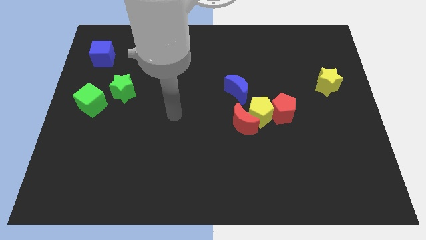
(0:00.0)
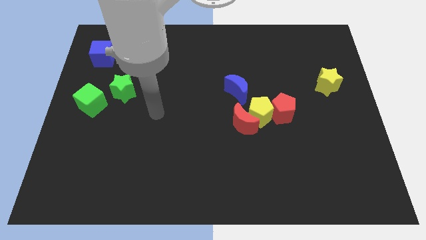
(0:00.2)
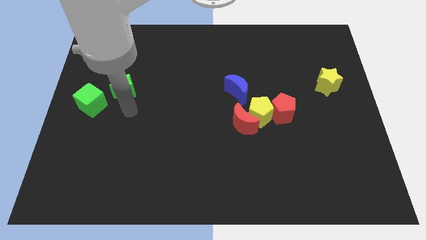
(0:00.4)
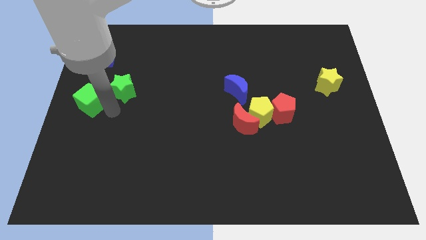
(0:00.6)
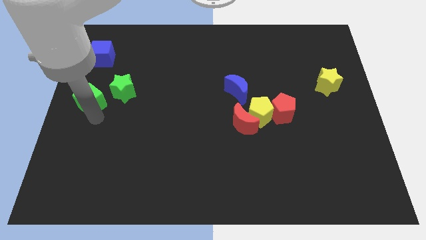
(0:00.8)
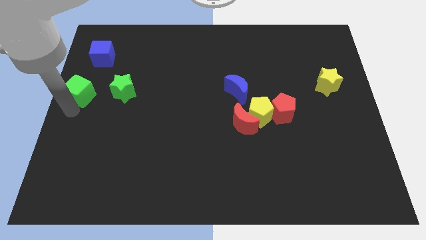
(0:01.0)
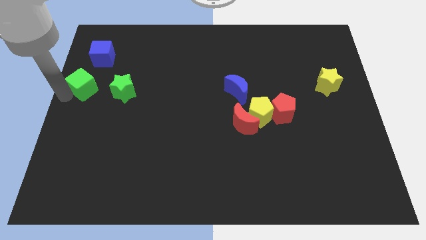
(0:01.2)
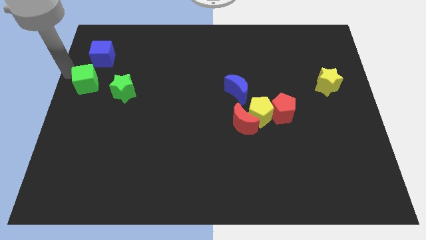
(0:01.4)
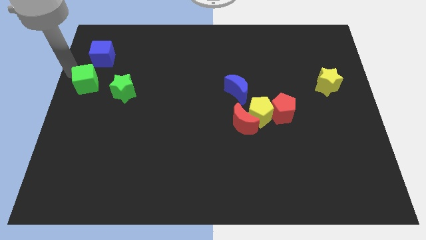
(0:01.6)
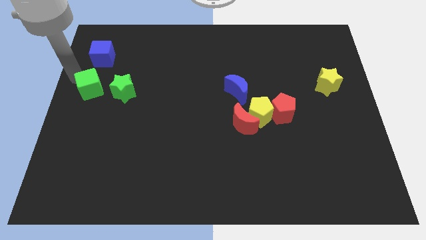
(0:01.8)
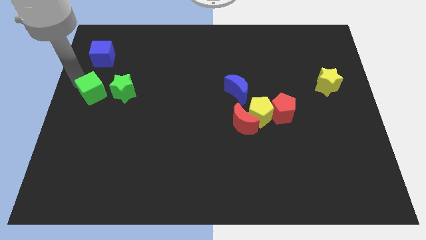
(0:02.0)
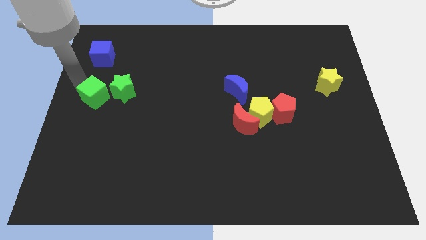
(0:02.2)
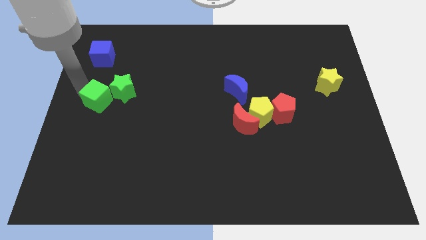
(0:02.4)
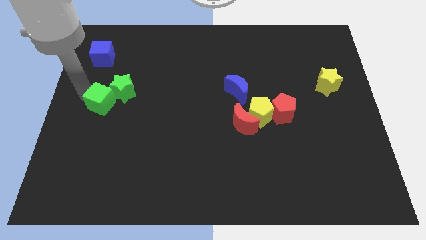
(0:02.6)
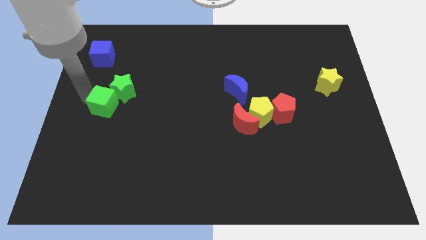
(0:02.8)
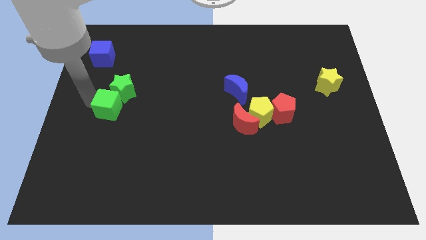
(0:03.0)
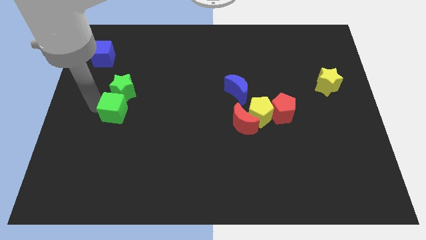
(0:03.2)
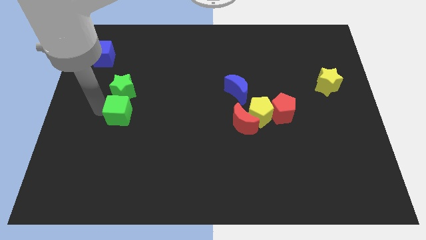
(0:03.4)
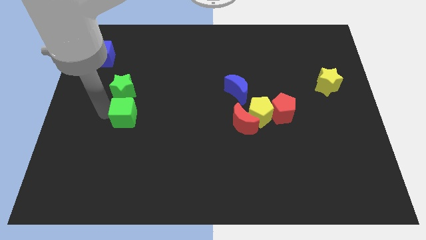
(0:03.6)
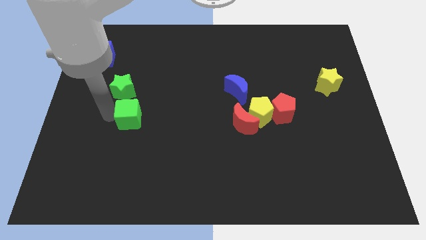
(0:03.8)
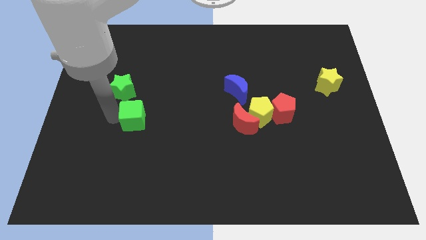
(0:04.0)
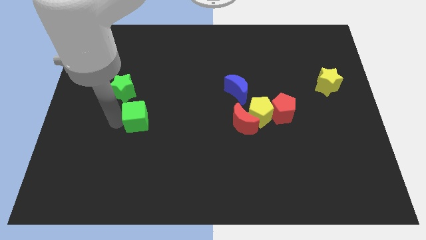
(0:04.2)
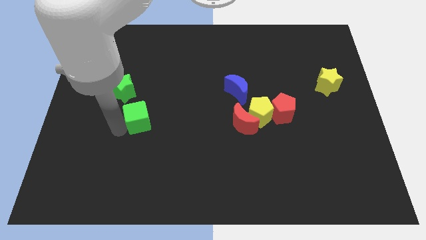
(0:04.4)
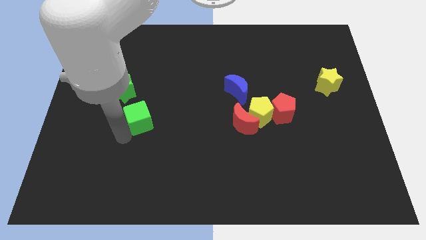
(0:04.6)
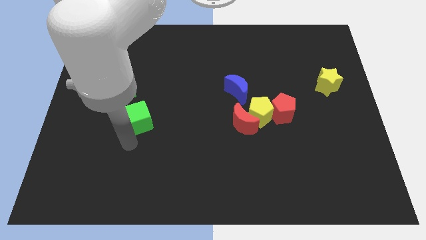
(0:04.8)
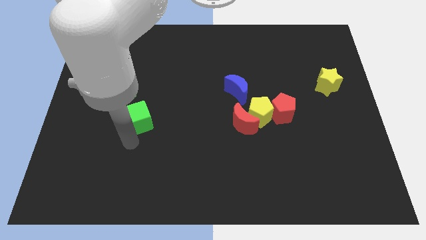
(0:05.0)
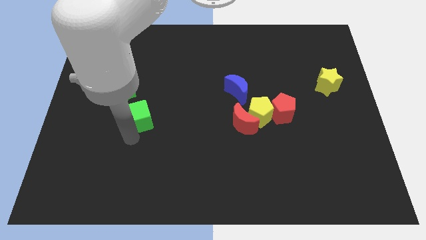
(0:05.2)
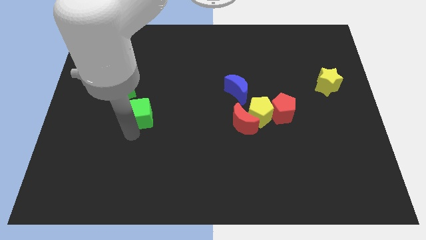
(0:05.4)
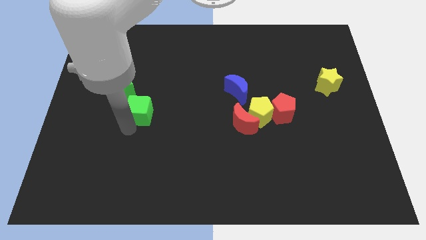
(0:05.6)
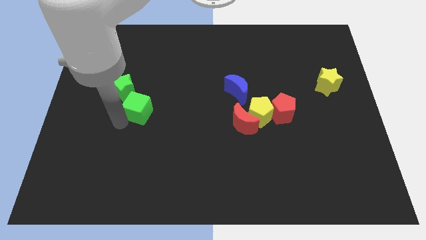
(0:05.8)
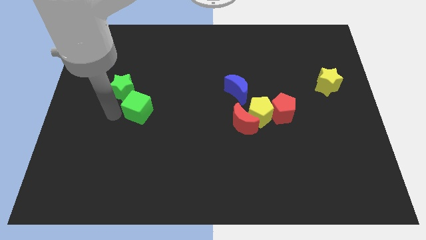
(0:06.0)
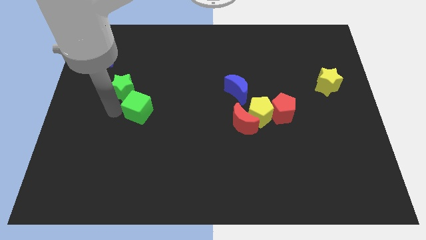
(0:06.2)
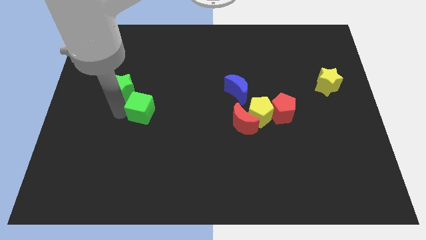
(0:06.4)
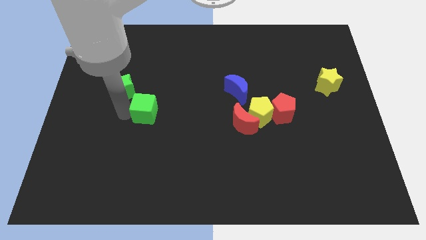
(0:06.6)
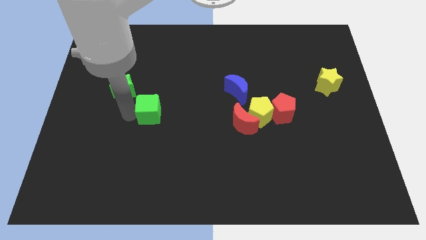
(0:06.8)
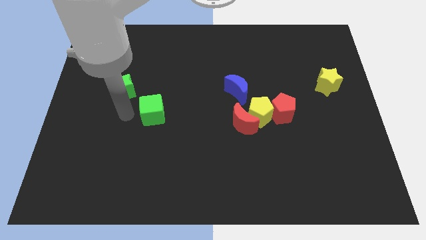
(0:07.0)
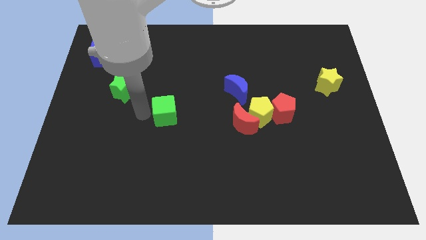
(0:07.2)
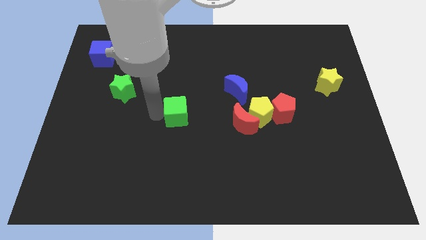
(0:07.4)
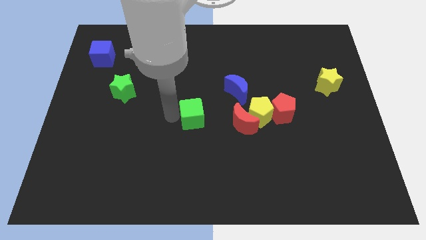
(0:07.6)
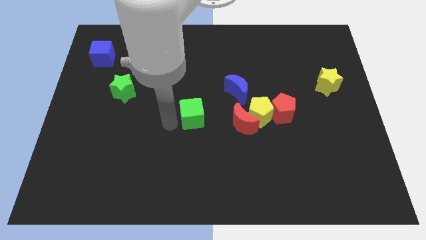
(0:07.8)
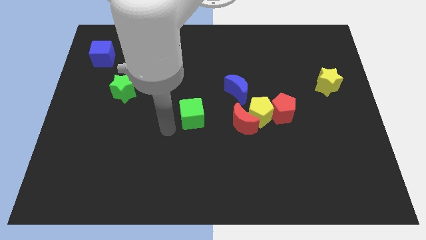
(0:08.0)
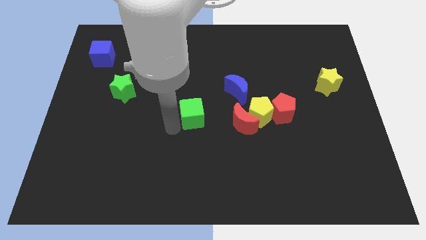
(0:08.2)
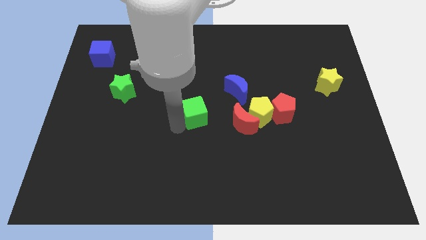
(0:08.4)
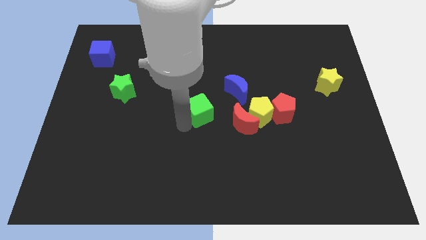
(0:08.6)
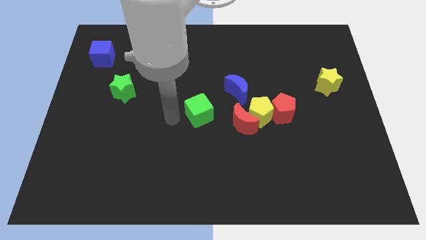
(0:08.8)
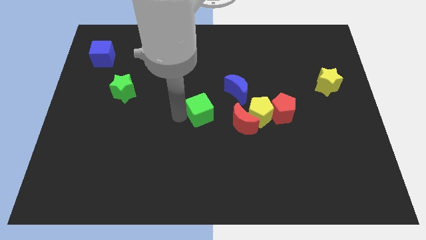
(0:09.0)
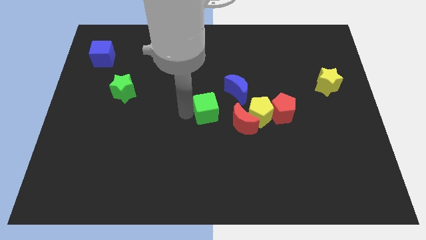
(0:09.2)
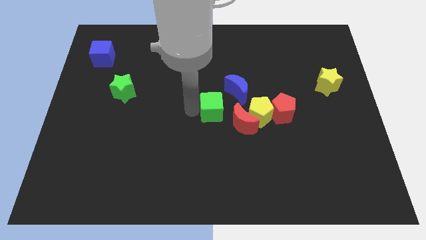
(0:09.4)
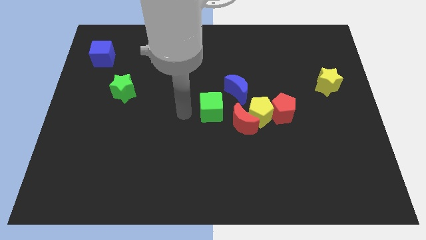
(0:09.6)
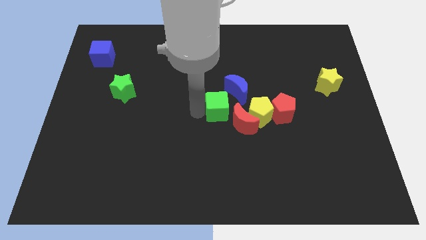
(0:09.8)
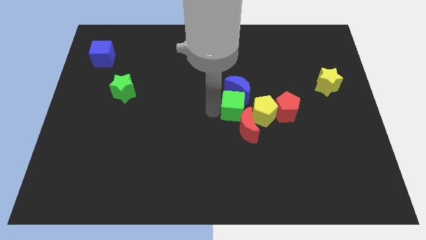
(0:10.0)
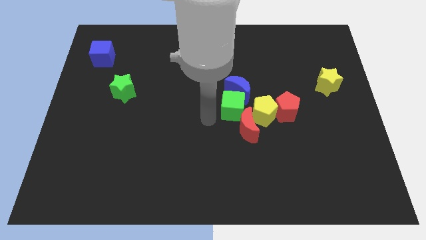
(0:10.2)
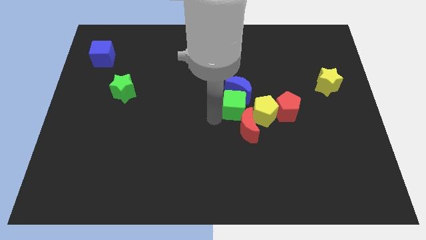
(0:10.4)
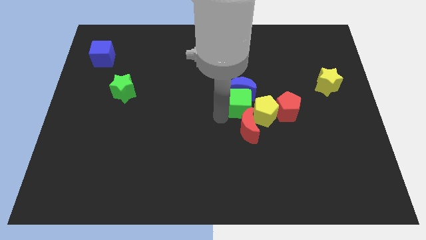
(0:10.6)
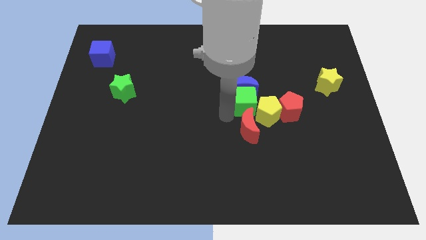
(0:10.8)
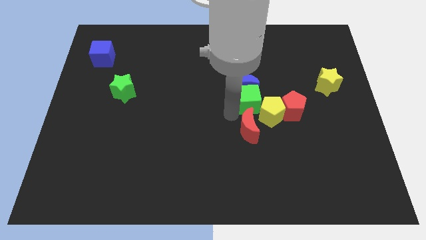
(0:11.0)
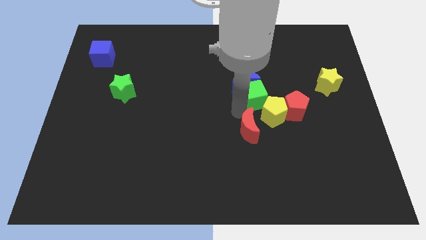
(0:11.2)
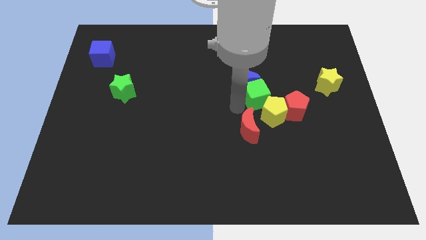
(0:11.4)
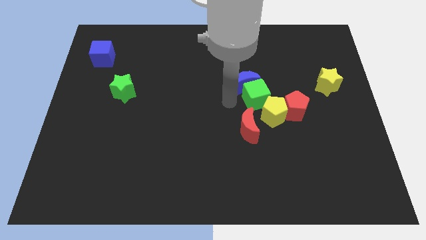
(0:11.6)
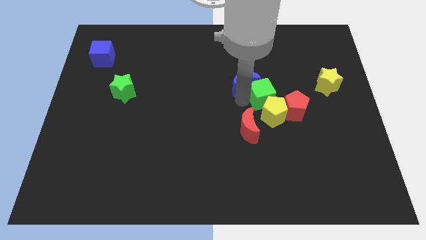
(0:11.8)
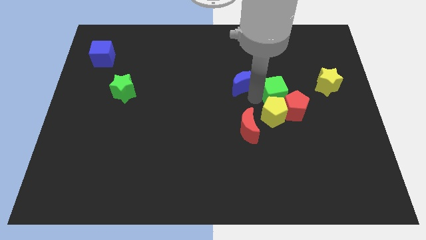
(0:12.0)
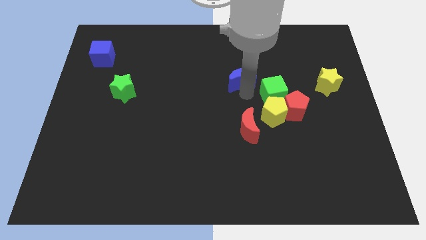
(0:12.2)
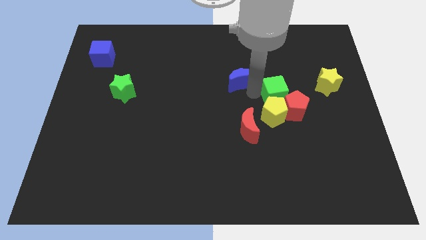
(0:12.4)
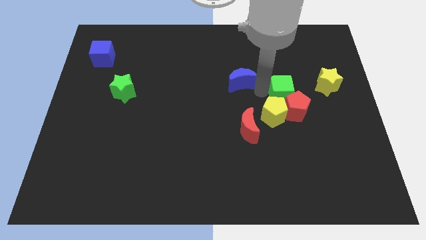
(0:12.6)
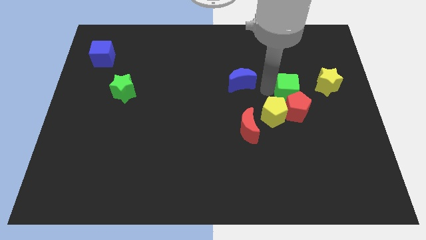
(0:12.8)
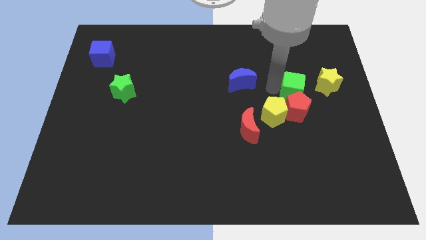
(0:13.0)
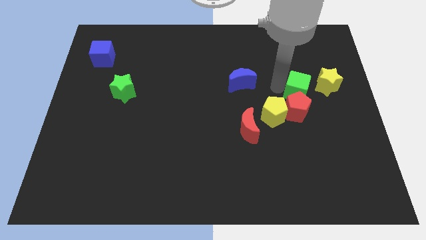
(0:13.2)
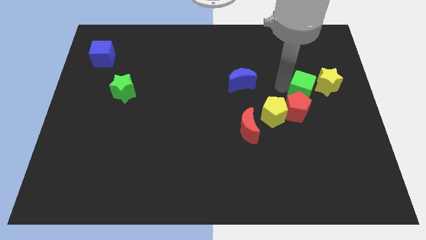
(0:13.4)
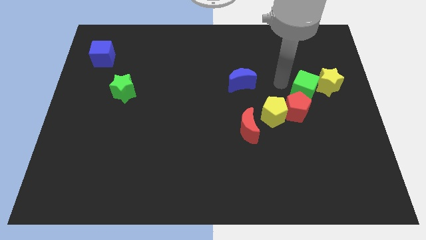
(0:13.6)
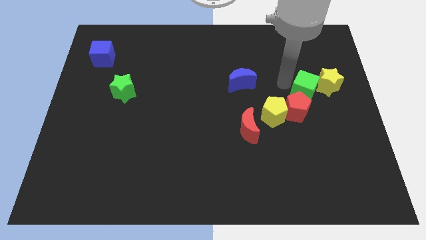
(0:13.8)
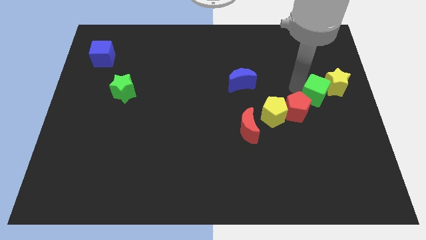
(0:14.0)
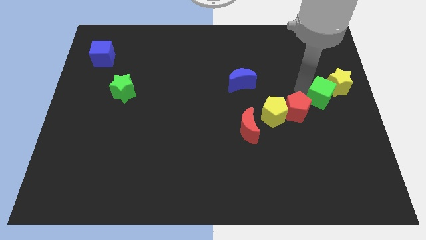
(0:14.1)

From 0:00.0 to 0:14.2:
move the green cube to the right side
